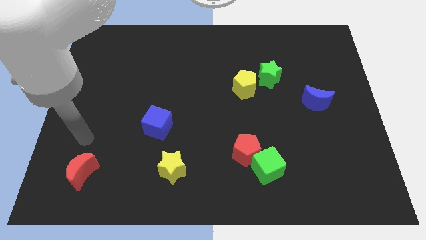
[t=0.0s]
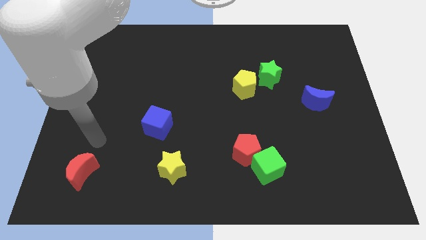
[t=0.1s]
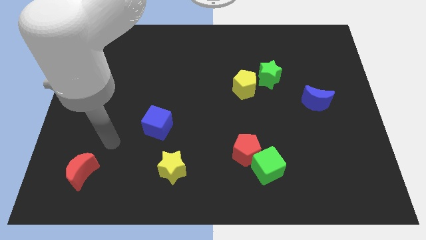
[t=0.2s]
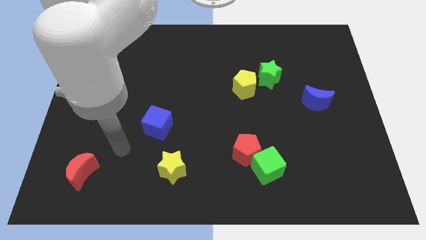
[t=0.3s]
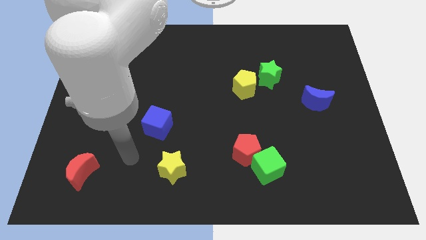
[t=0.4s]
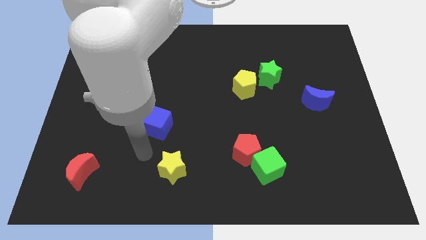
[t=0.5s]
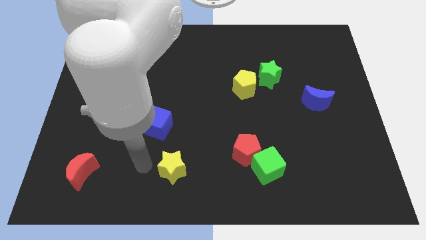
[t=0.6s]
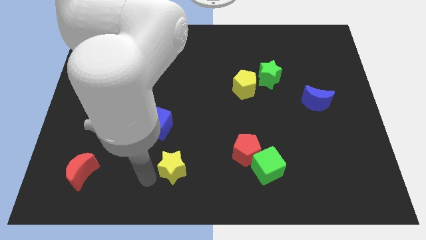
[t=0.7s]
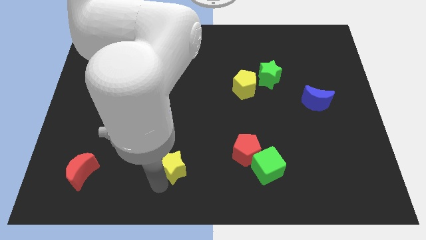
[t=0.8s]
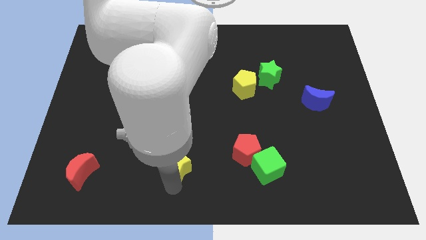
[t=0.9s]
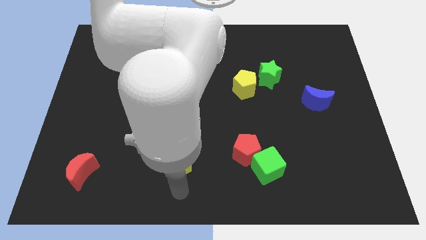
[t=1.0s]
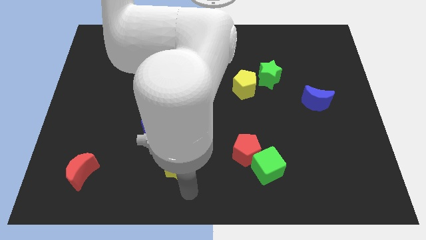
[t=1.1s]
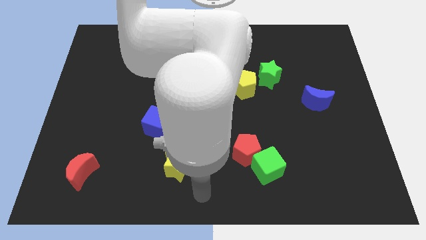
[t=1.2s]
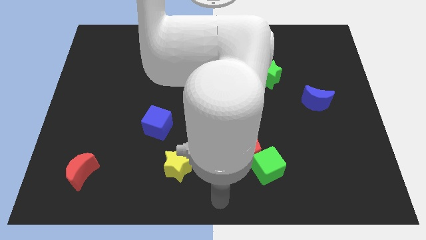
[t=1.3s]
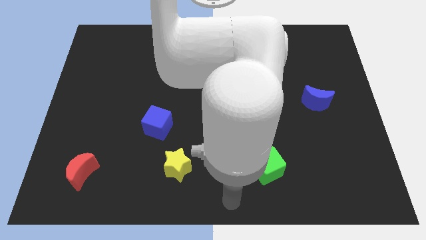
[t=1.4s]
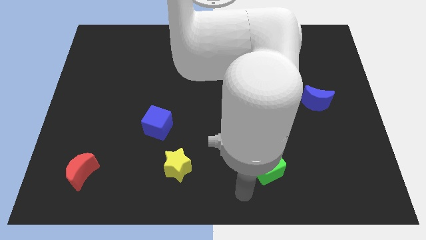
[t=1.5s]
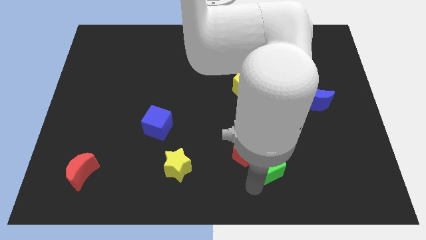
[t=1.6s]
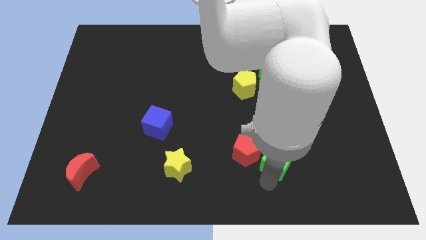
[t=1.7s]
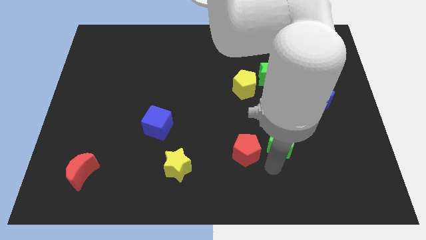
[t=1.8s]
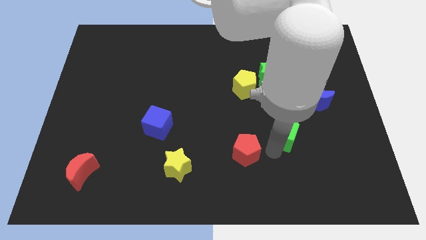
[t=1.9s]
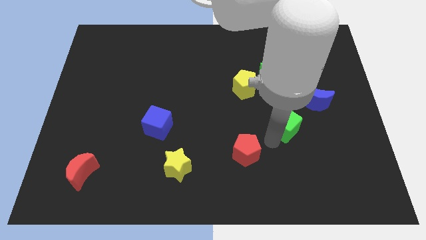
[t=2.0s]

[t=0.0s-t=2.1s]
separate the red pentagon from the green cube

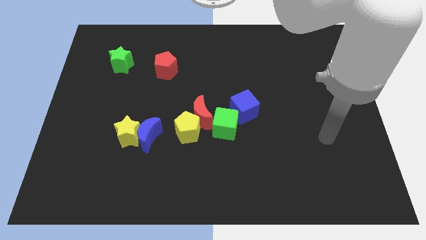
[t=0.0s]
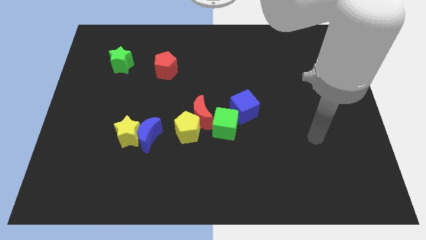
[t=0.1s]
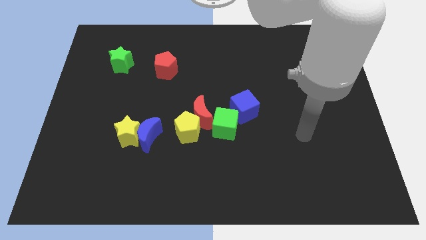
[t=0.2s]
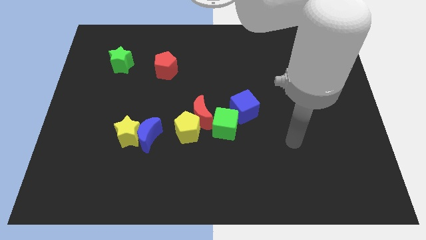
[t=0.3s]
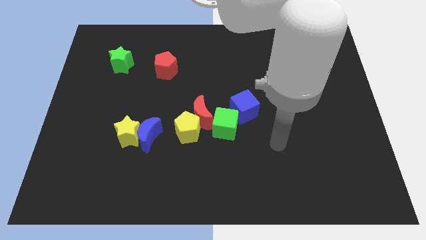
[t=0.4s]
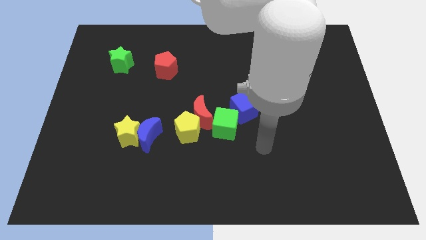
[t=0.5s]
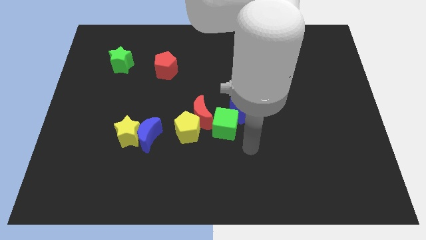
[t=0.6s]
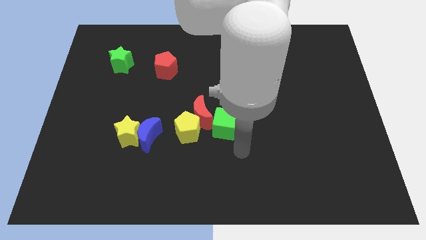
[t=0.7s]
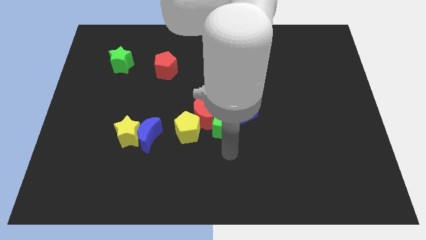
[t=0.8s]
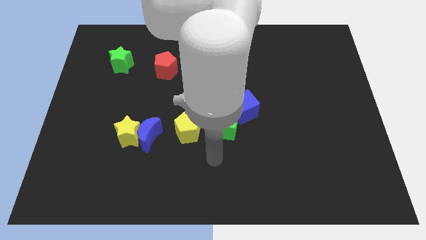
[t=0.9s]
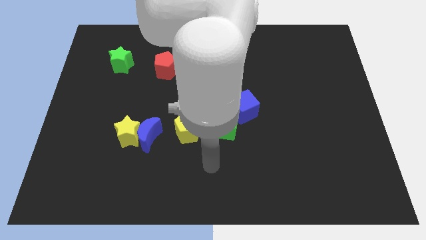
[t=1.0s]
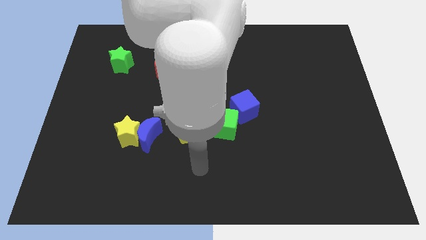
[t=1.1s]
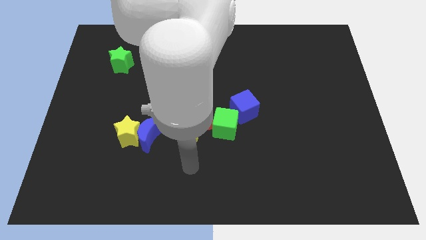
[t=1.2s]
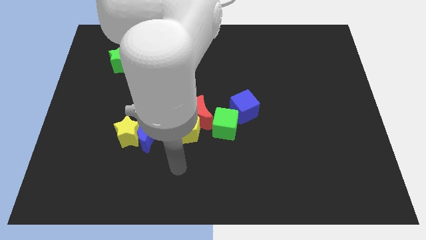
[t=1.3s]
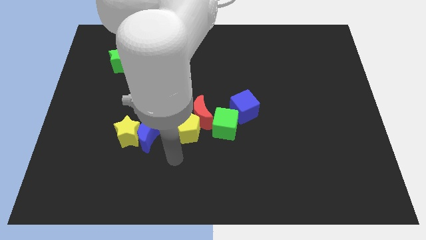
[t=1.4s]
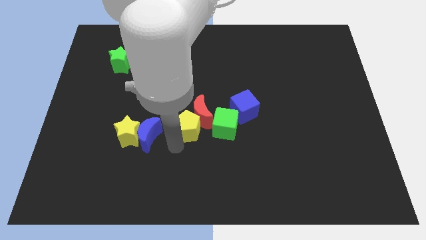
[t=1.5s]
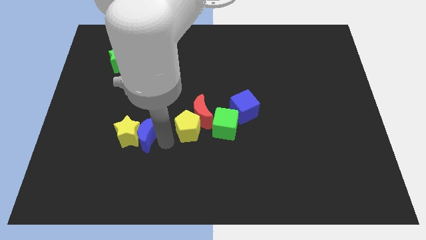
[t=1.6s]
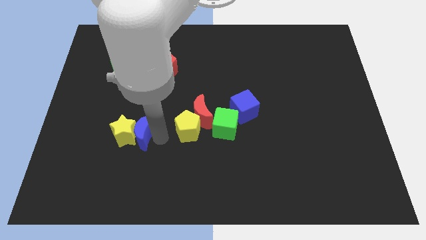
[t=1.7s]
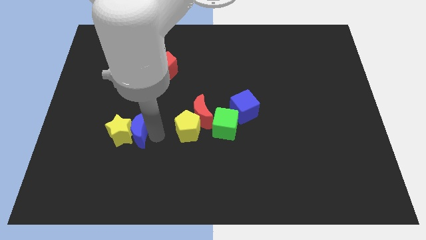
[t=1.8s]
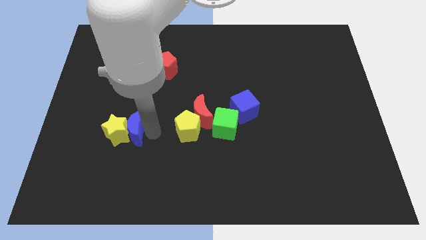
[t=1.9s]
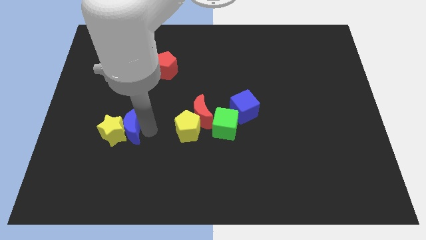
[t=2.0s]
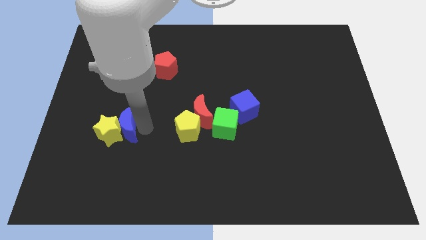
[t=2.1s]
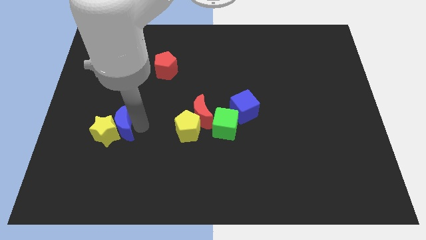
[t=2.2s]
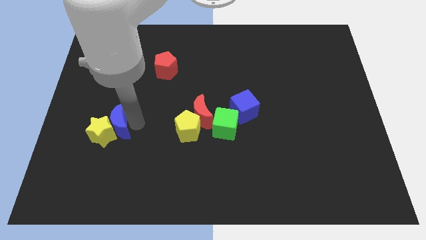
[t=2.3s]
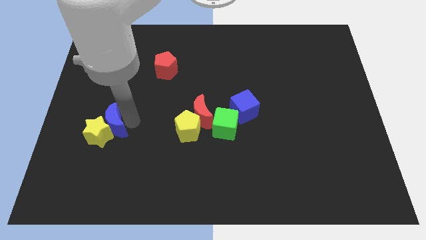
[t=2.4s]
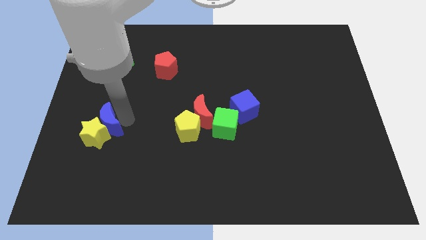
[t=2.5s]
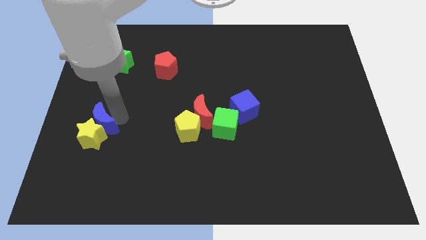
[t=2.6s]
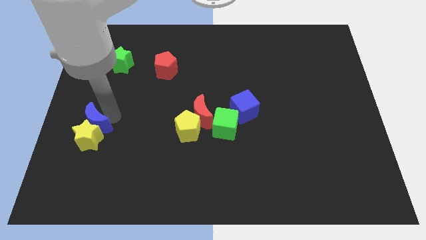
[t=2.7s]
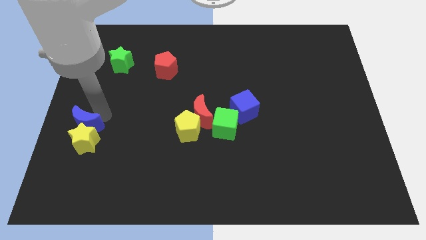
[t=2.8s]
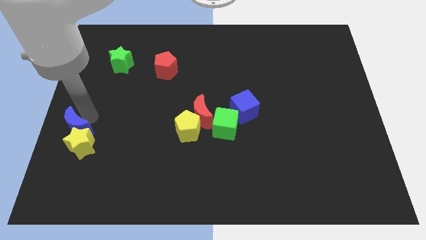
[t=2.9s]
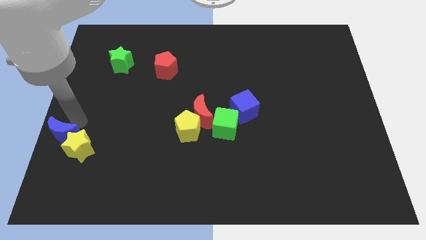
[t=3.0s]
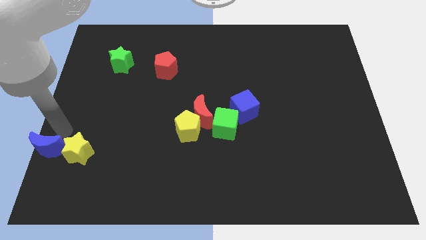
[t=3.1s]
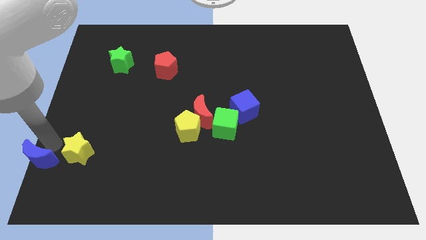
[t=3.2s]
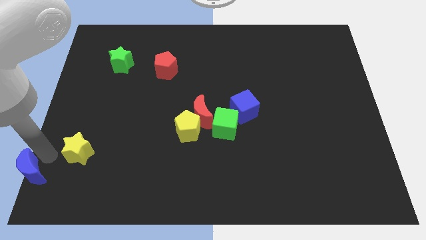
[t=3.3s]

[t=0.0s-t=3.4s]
move the yellow star away from the blue moon

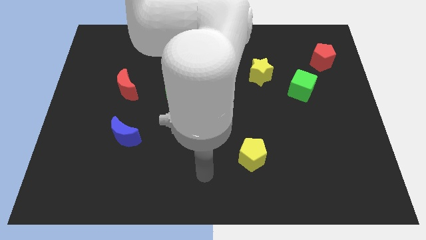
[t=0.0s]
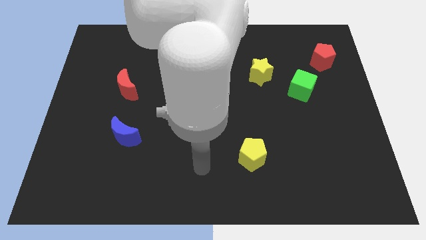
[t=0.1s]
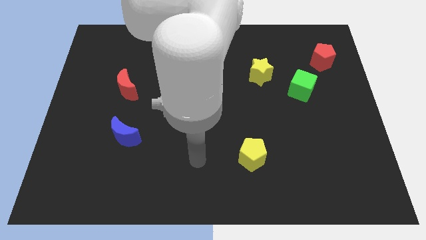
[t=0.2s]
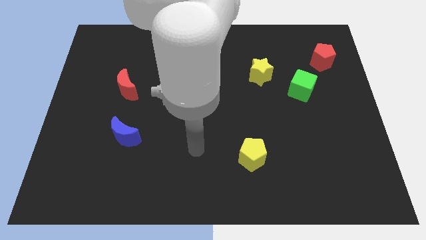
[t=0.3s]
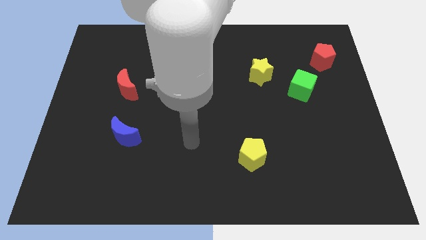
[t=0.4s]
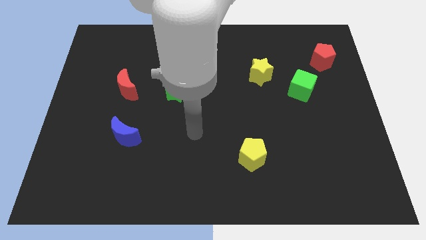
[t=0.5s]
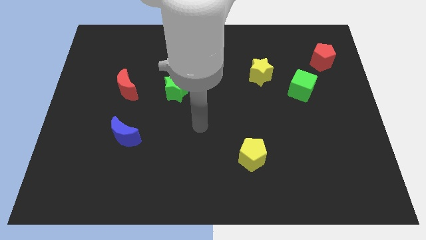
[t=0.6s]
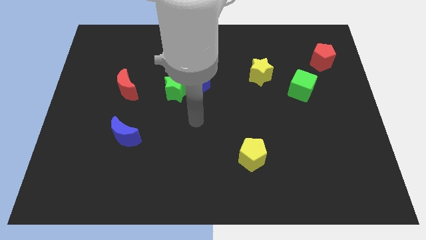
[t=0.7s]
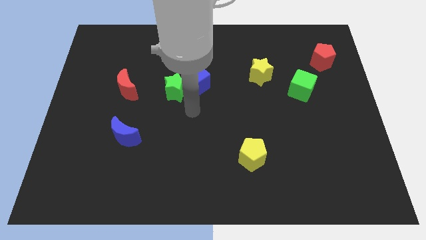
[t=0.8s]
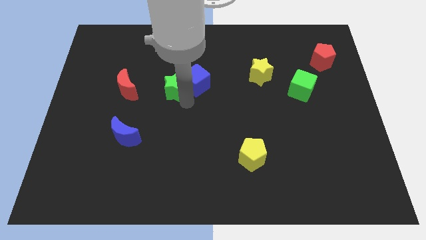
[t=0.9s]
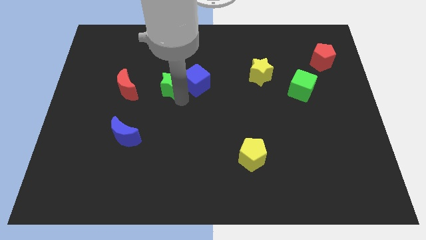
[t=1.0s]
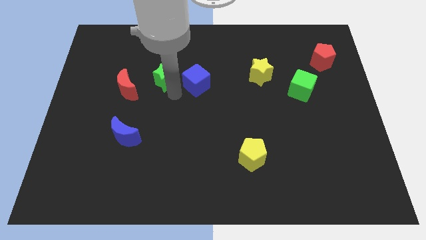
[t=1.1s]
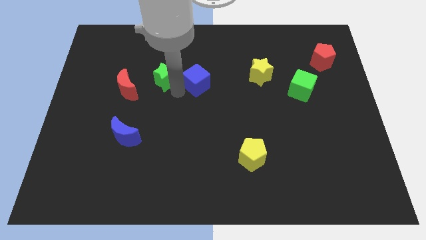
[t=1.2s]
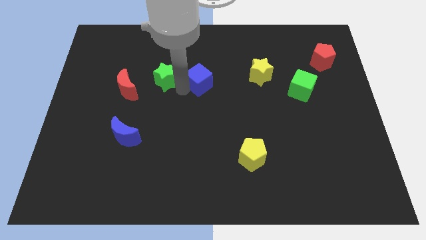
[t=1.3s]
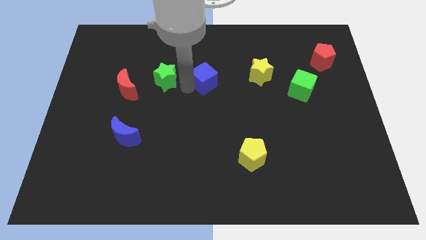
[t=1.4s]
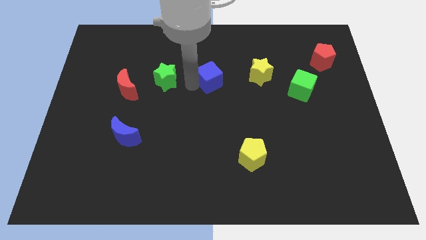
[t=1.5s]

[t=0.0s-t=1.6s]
move the blue cube away from the green star

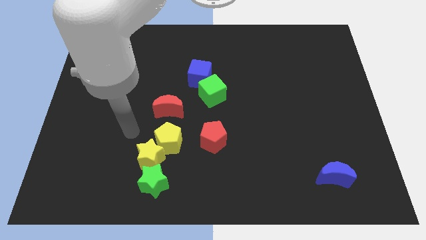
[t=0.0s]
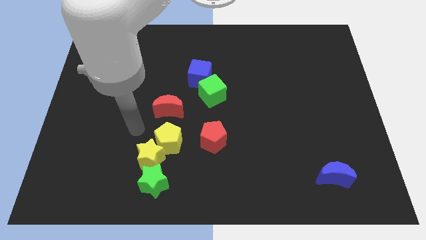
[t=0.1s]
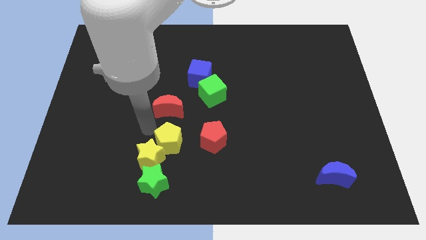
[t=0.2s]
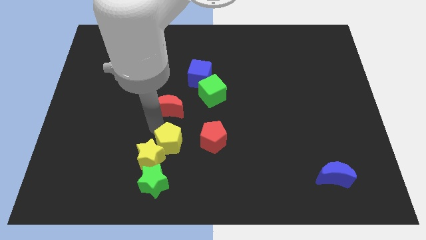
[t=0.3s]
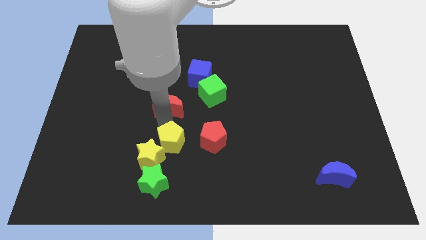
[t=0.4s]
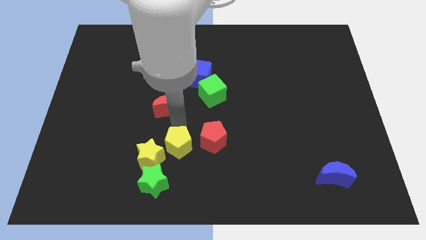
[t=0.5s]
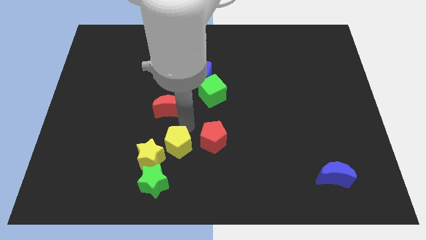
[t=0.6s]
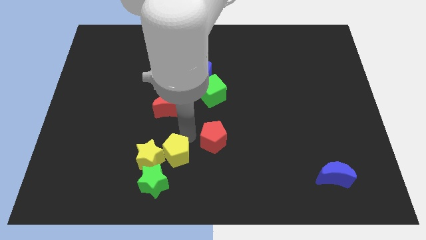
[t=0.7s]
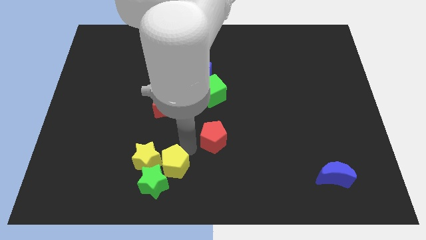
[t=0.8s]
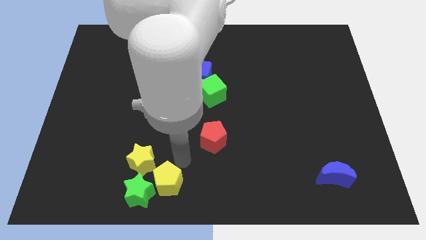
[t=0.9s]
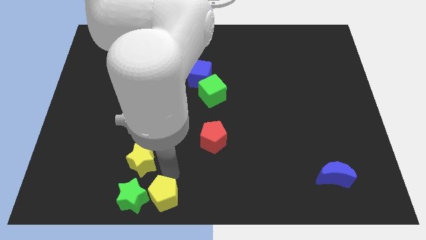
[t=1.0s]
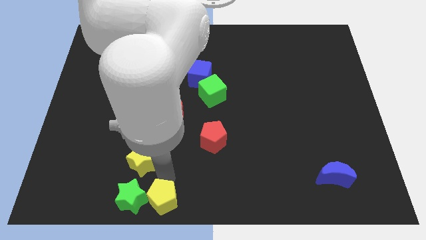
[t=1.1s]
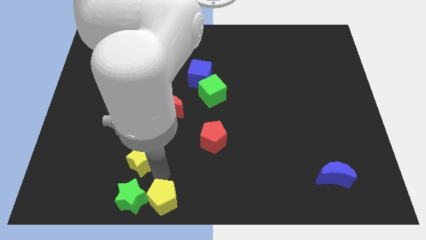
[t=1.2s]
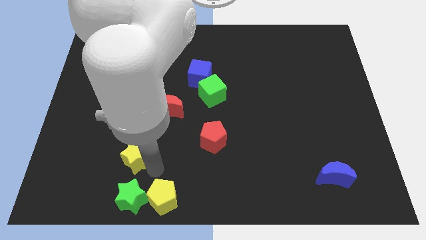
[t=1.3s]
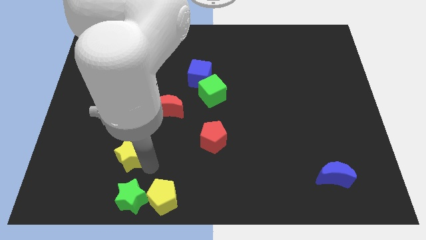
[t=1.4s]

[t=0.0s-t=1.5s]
pull the yellow star apart from the yellow pentagon and green star

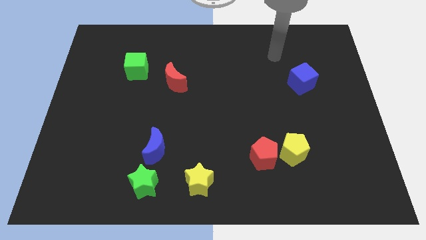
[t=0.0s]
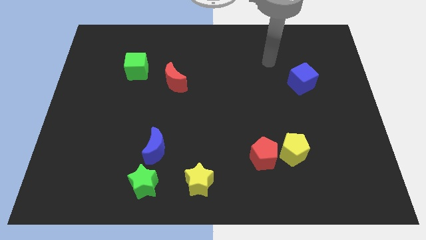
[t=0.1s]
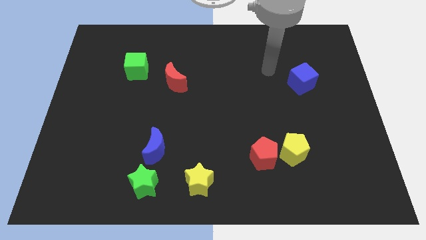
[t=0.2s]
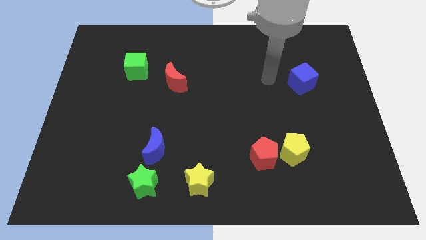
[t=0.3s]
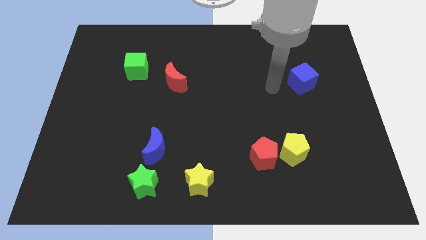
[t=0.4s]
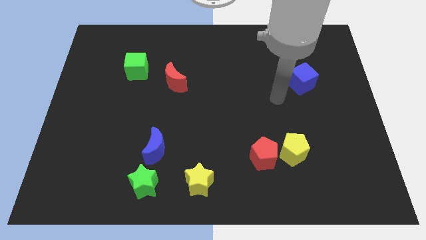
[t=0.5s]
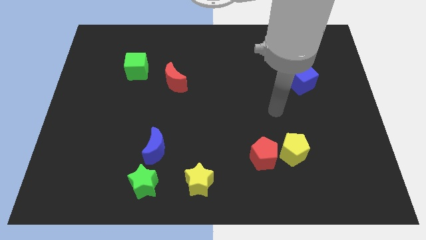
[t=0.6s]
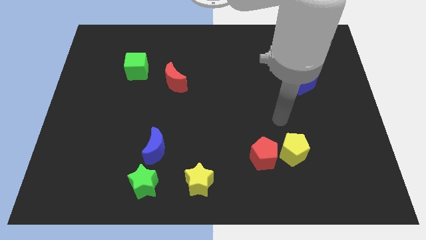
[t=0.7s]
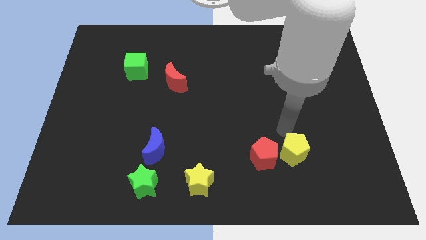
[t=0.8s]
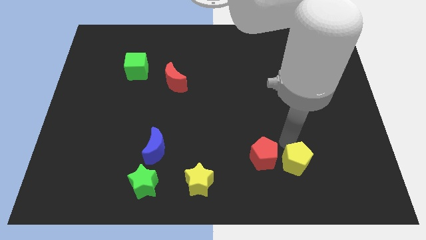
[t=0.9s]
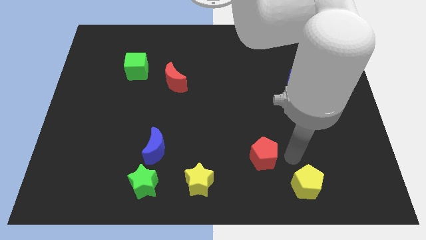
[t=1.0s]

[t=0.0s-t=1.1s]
separate the red pentagon from the yellow pentagon
